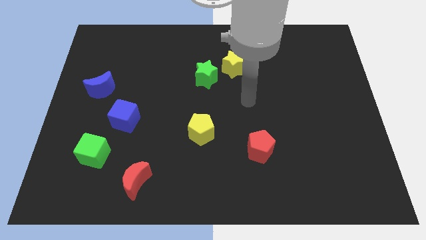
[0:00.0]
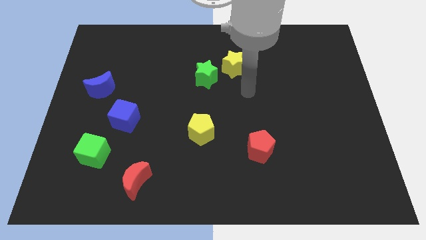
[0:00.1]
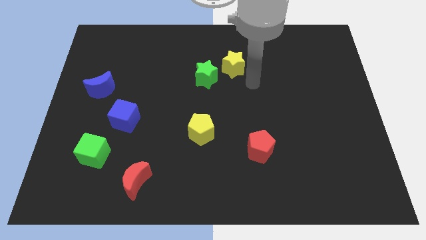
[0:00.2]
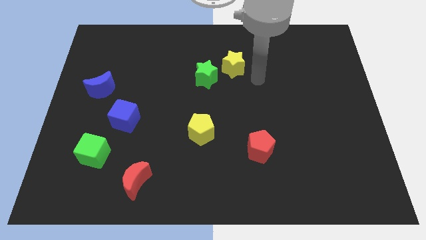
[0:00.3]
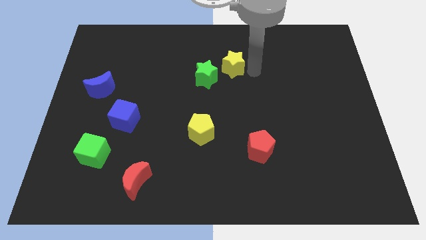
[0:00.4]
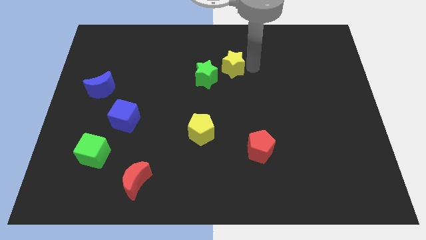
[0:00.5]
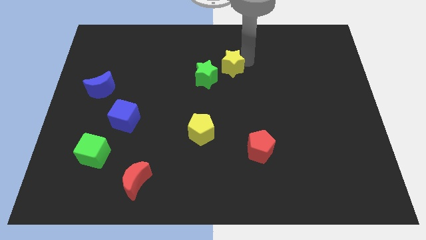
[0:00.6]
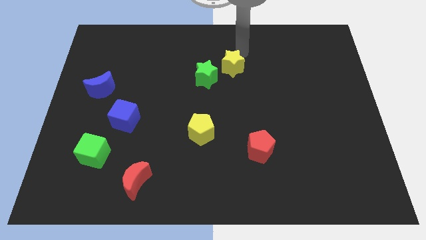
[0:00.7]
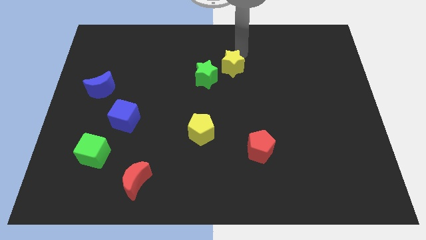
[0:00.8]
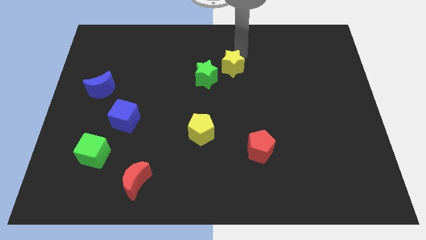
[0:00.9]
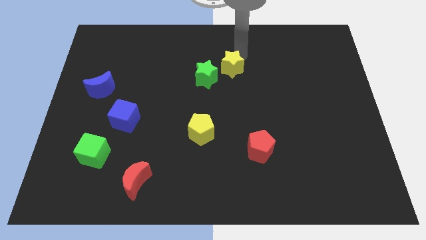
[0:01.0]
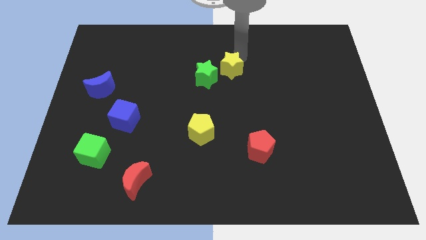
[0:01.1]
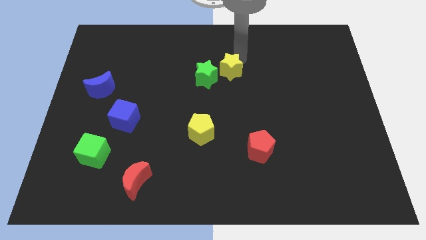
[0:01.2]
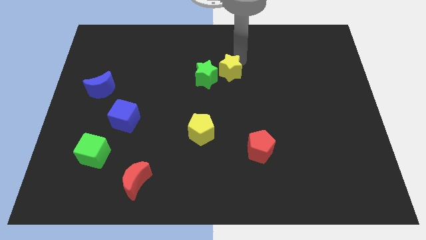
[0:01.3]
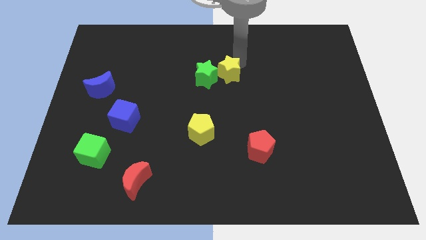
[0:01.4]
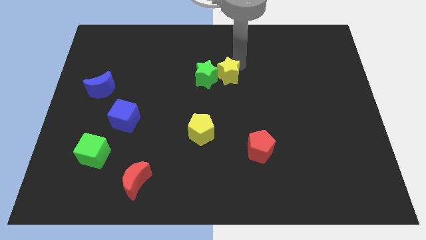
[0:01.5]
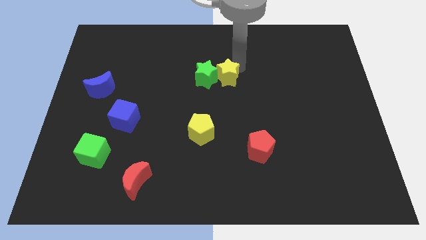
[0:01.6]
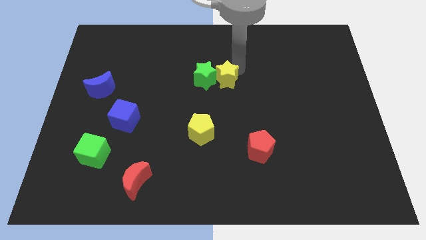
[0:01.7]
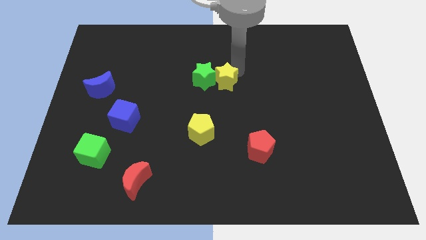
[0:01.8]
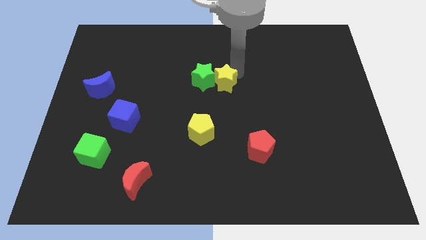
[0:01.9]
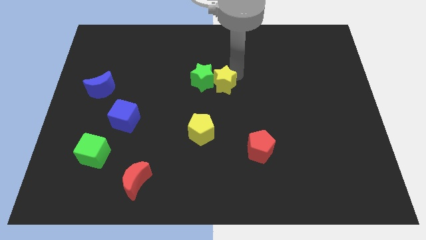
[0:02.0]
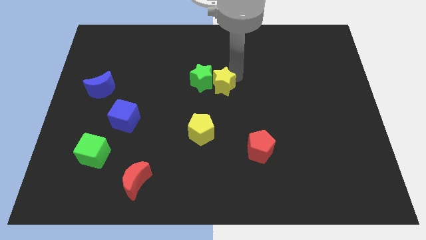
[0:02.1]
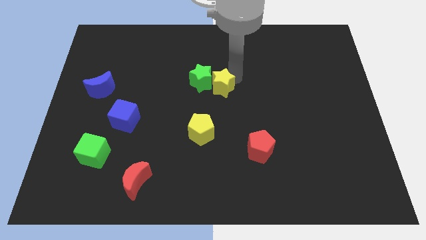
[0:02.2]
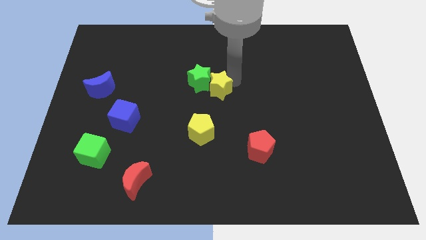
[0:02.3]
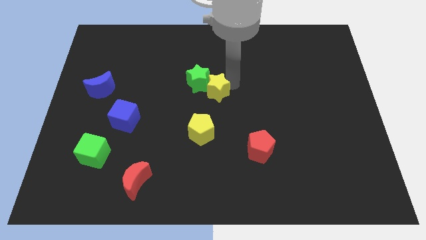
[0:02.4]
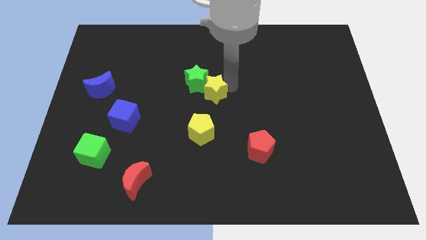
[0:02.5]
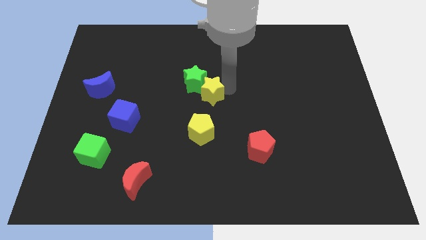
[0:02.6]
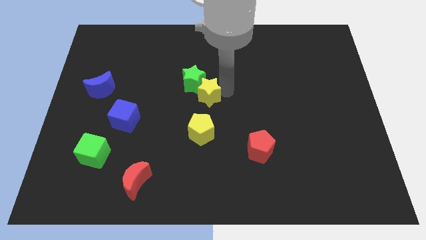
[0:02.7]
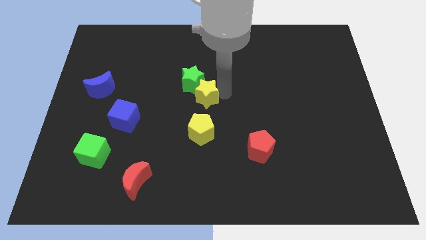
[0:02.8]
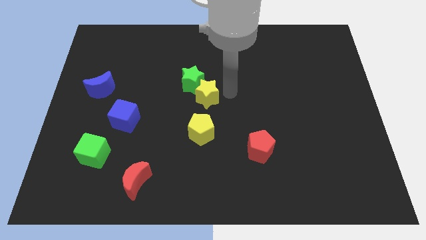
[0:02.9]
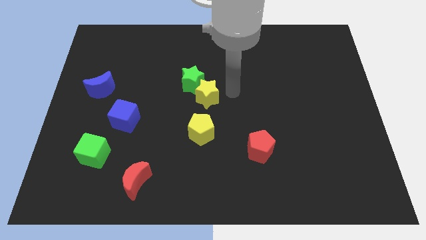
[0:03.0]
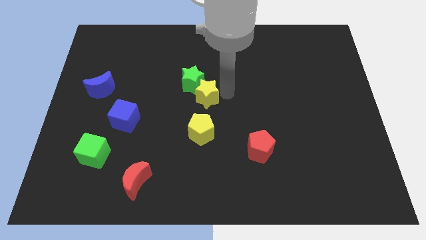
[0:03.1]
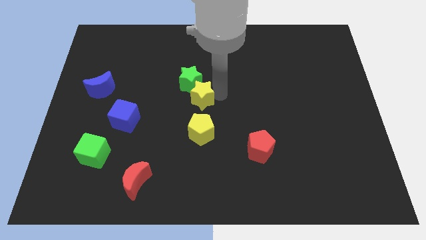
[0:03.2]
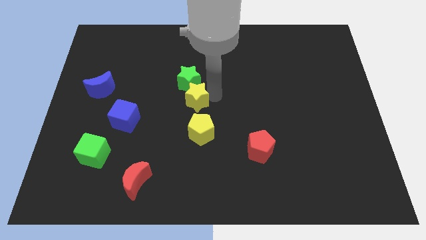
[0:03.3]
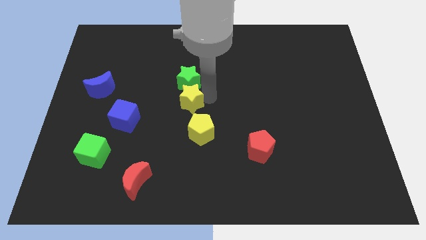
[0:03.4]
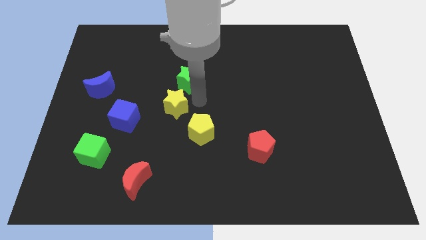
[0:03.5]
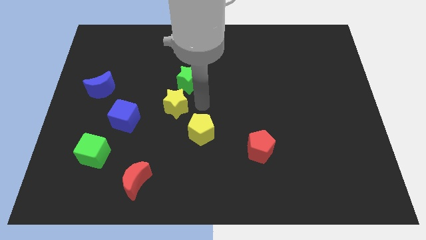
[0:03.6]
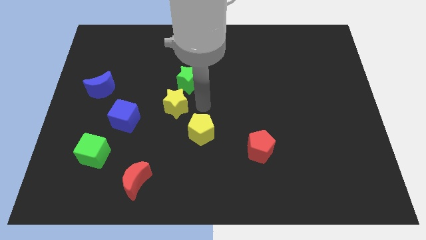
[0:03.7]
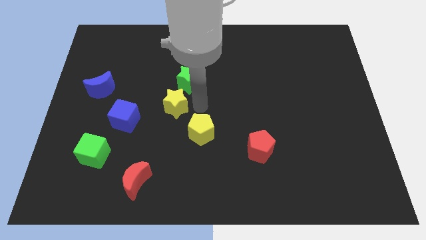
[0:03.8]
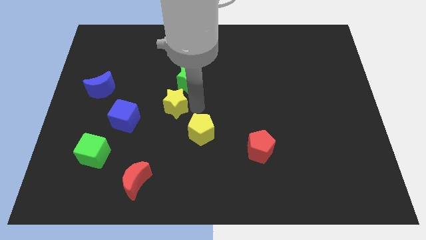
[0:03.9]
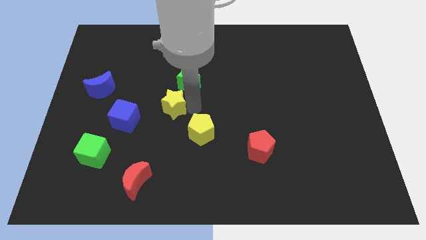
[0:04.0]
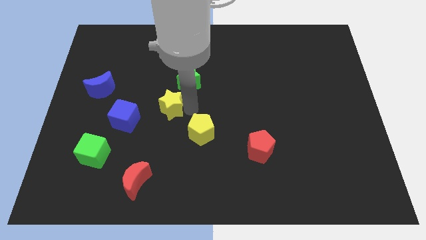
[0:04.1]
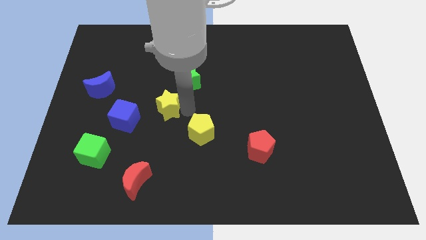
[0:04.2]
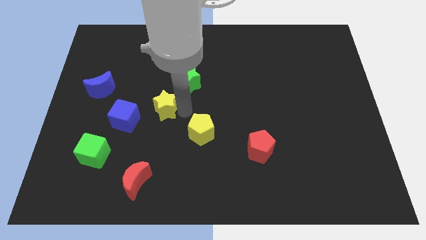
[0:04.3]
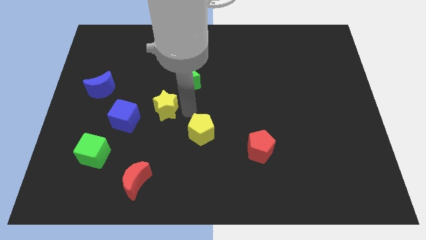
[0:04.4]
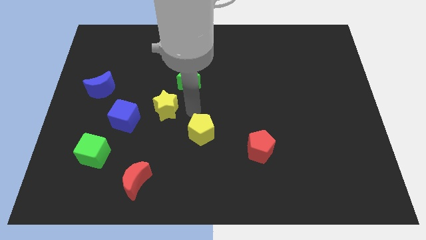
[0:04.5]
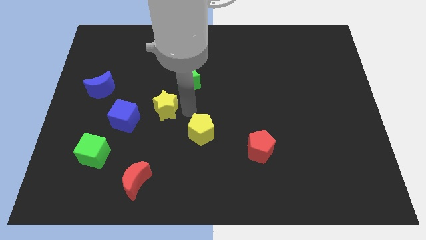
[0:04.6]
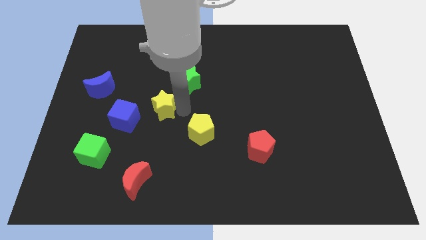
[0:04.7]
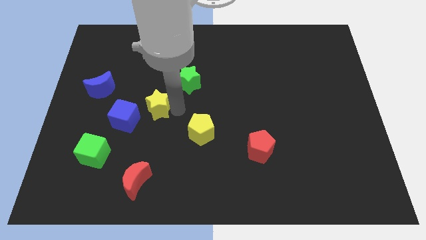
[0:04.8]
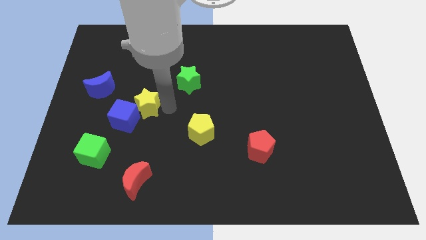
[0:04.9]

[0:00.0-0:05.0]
put the yellow star towards the blue cube

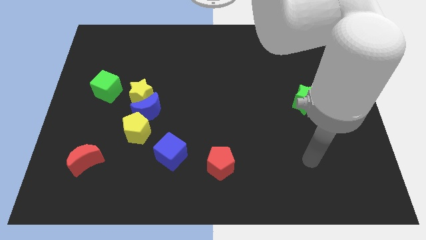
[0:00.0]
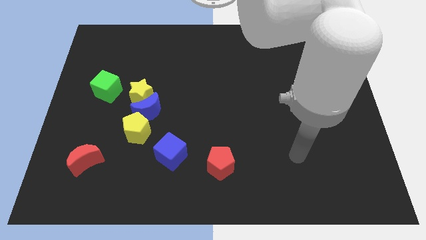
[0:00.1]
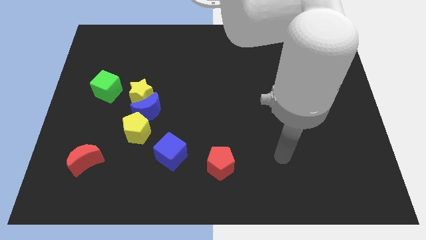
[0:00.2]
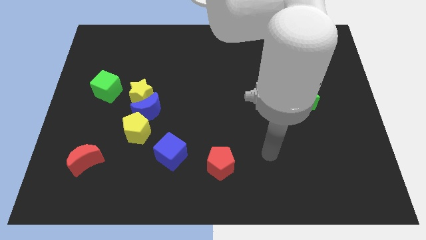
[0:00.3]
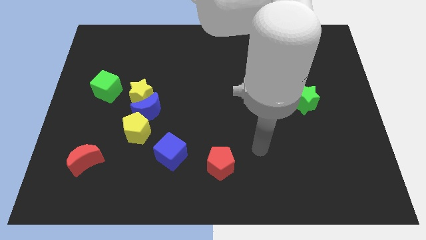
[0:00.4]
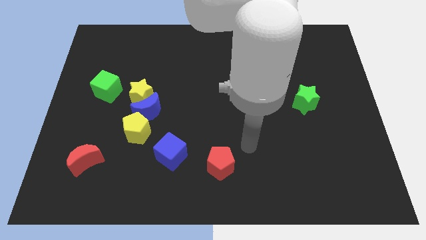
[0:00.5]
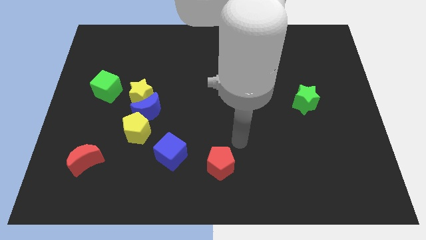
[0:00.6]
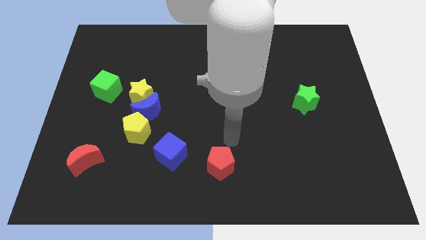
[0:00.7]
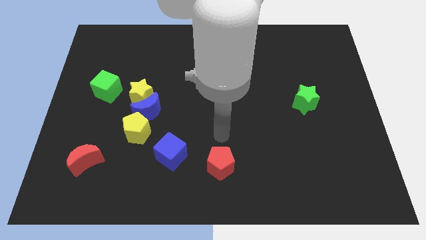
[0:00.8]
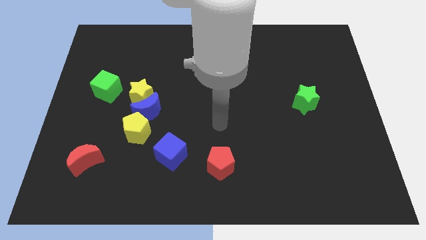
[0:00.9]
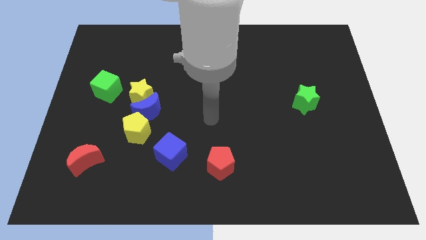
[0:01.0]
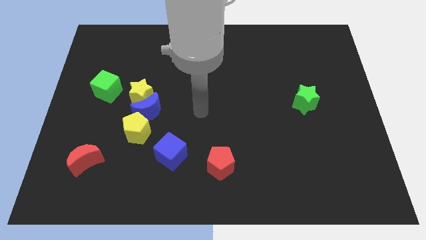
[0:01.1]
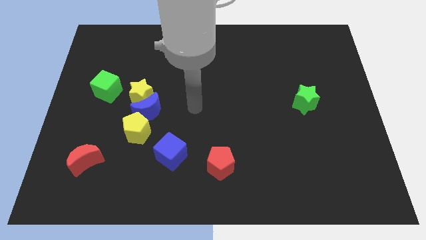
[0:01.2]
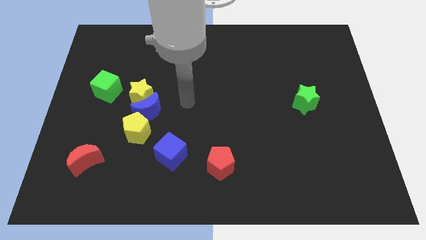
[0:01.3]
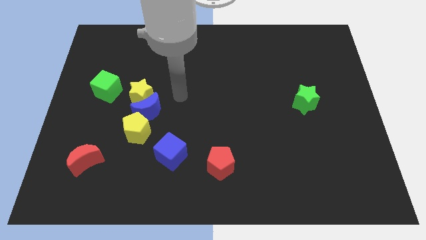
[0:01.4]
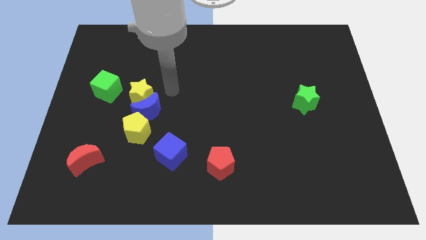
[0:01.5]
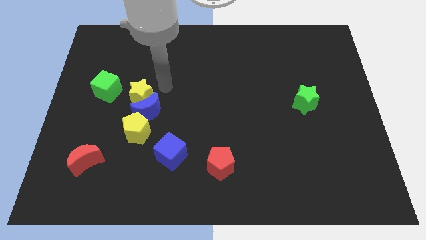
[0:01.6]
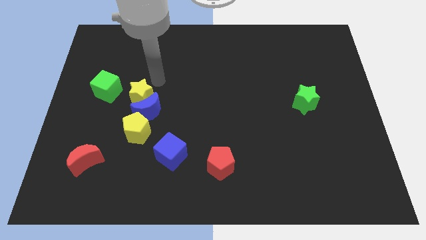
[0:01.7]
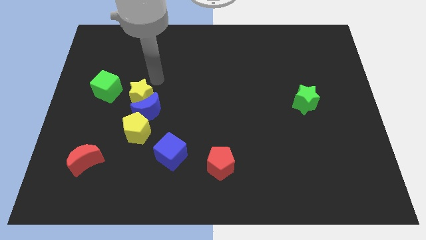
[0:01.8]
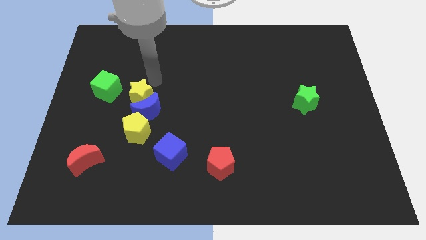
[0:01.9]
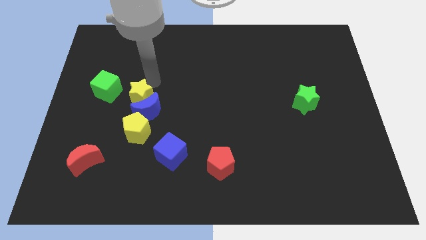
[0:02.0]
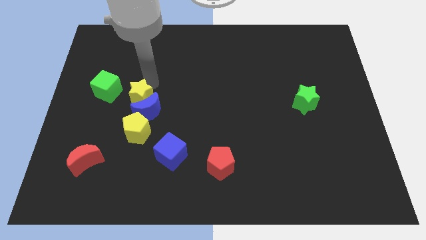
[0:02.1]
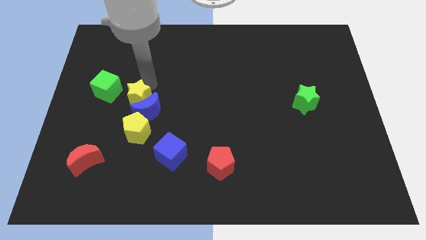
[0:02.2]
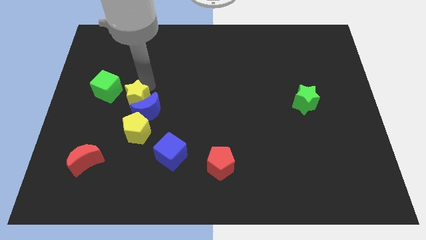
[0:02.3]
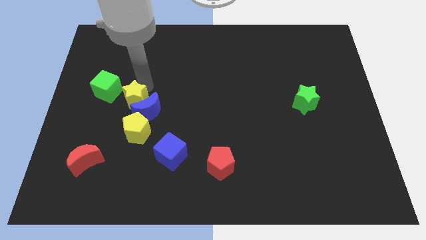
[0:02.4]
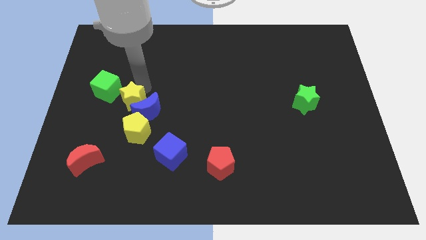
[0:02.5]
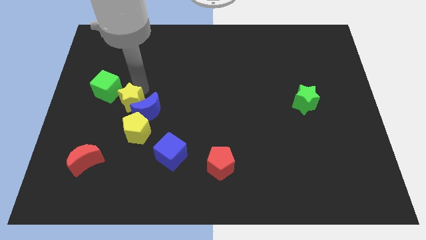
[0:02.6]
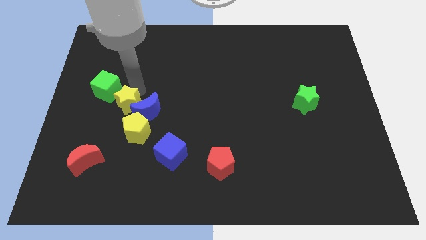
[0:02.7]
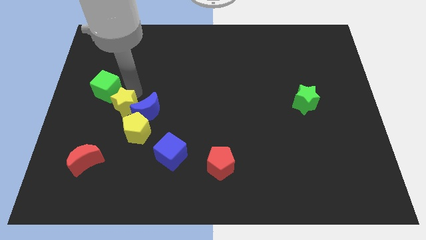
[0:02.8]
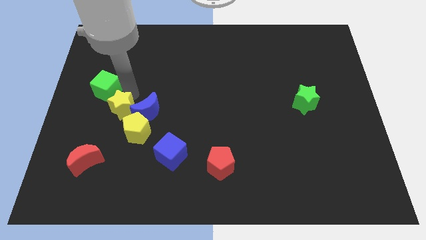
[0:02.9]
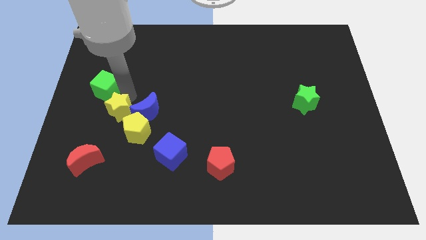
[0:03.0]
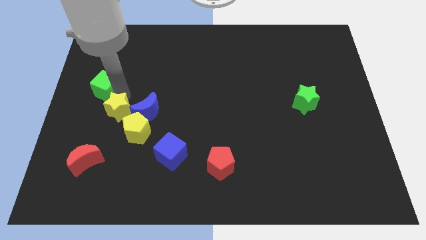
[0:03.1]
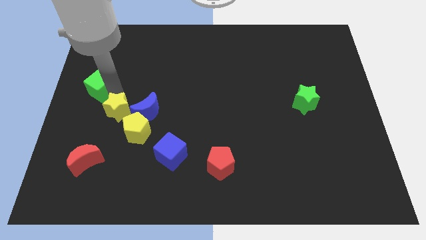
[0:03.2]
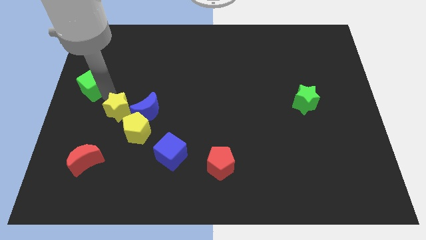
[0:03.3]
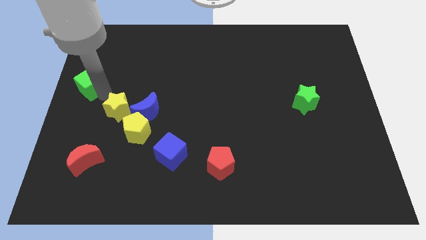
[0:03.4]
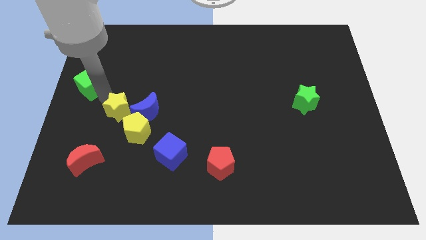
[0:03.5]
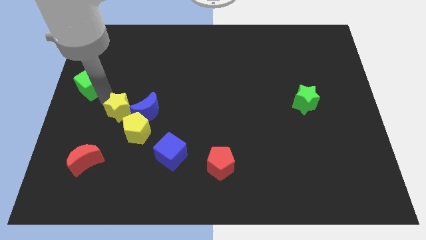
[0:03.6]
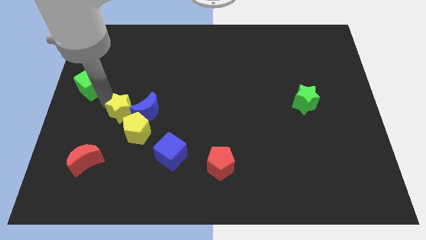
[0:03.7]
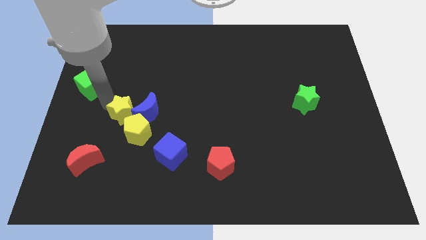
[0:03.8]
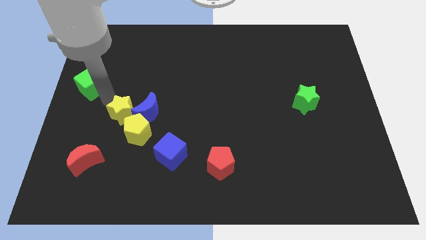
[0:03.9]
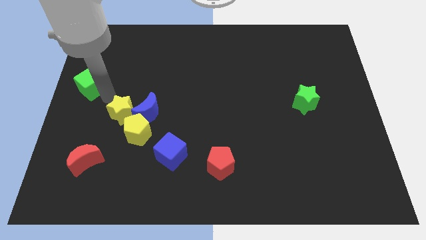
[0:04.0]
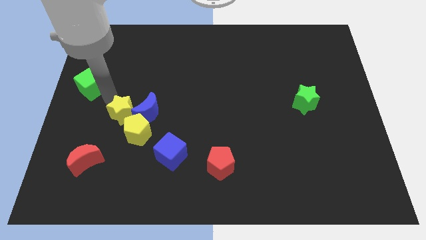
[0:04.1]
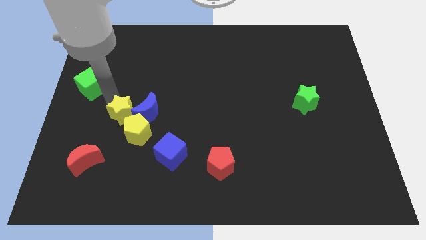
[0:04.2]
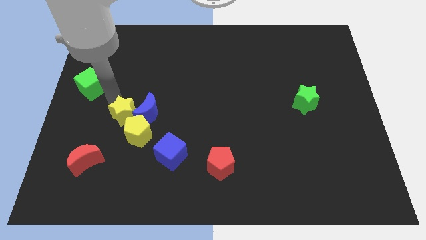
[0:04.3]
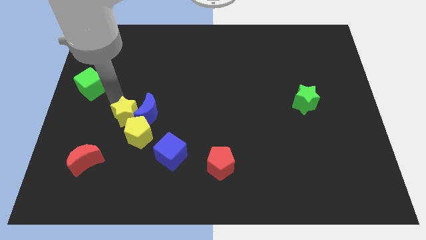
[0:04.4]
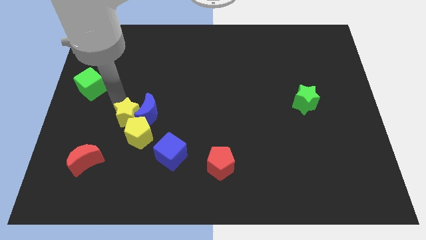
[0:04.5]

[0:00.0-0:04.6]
slide the yellow star to the yellow pentagon
